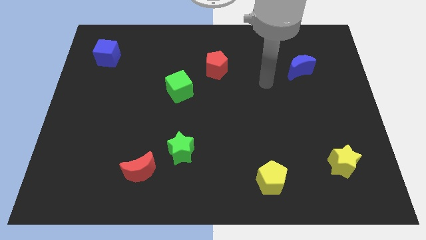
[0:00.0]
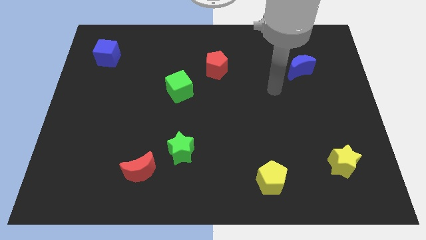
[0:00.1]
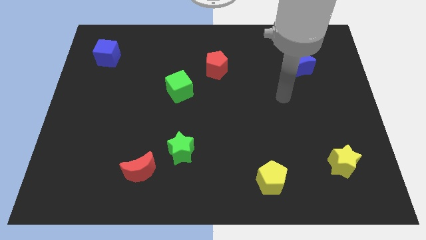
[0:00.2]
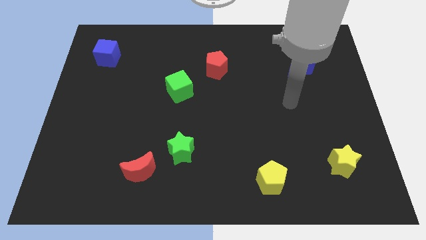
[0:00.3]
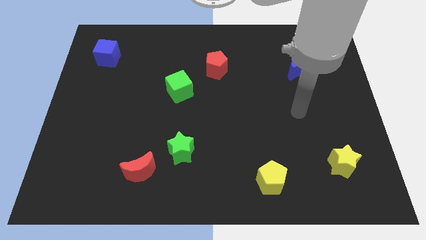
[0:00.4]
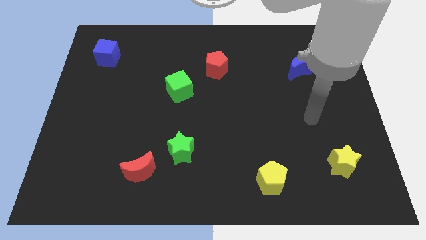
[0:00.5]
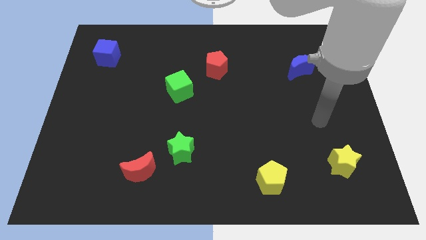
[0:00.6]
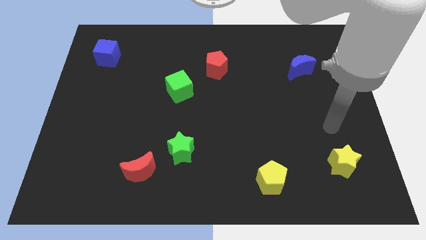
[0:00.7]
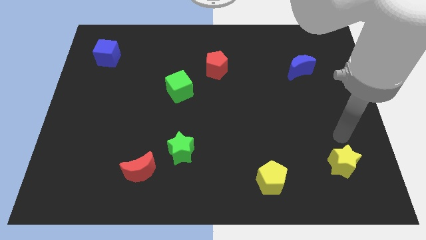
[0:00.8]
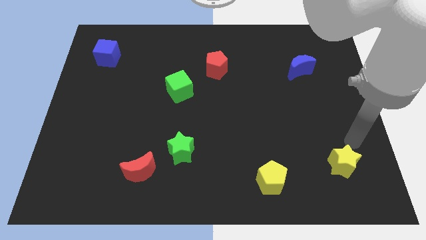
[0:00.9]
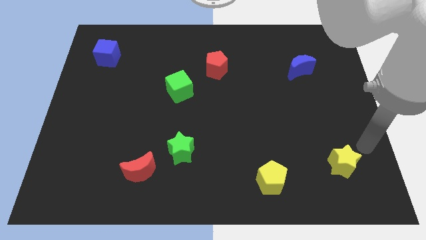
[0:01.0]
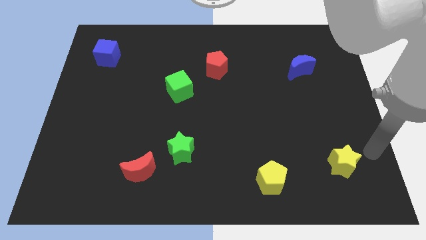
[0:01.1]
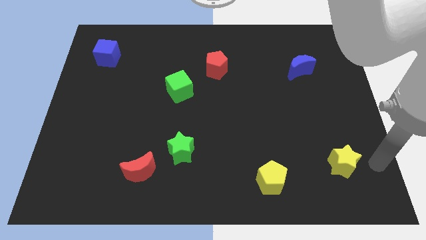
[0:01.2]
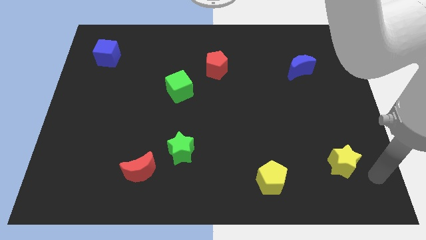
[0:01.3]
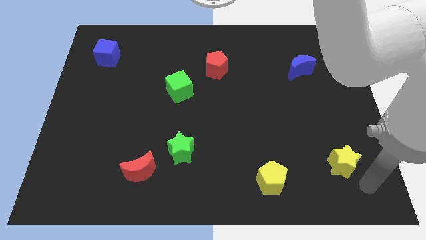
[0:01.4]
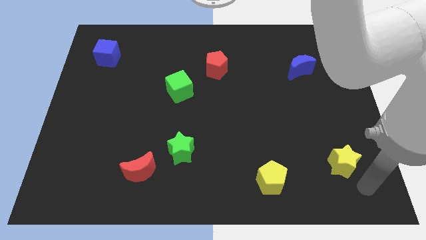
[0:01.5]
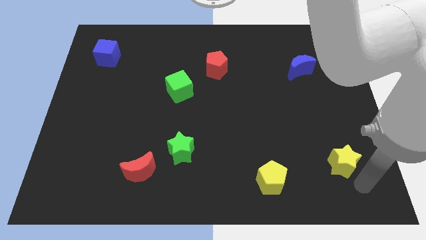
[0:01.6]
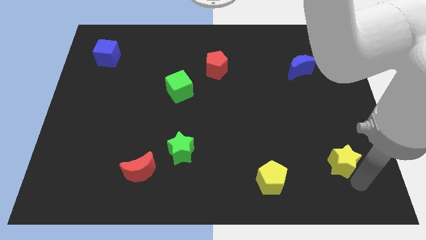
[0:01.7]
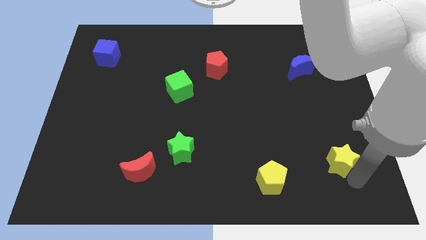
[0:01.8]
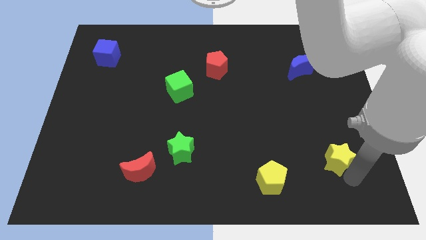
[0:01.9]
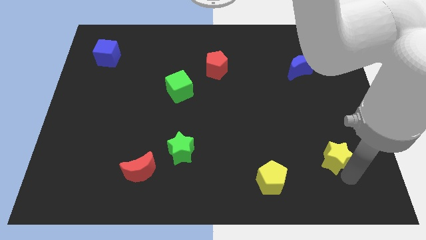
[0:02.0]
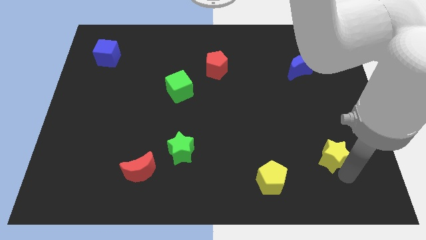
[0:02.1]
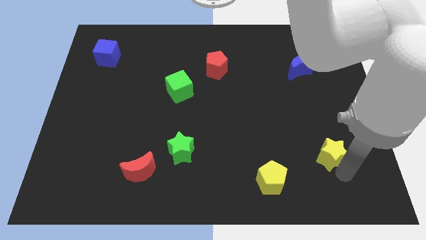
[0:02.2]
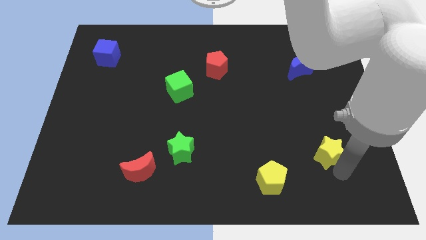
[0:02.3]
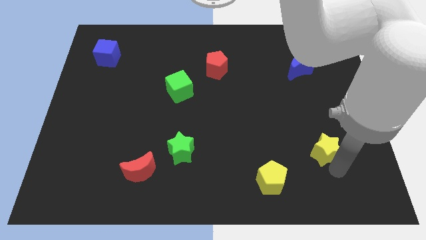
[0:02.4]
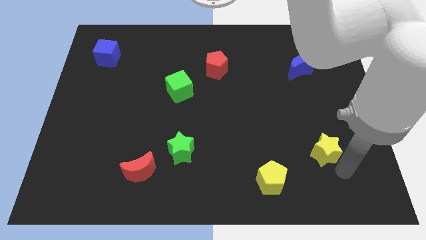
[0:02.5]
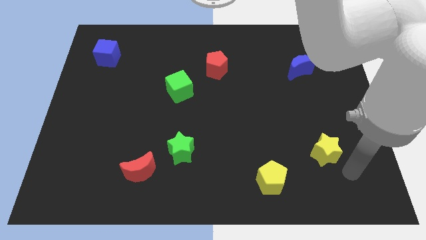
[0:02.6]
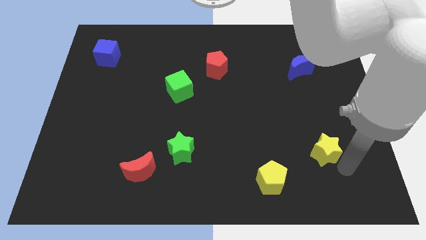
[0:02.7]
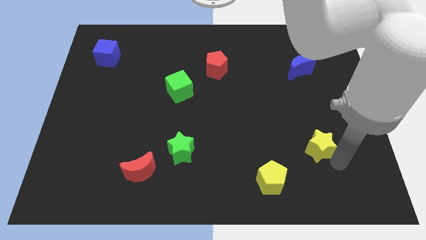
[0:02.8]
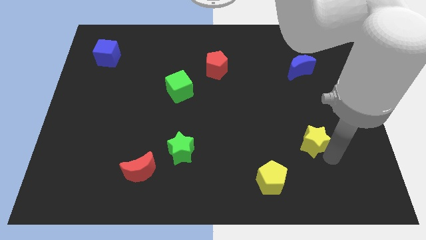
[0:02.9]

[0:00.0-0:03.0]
push the yellow star upwards and to the left diagonally slightly

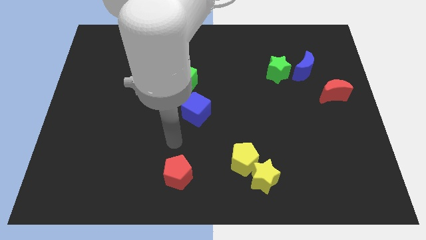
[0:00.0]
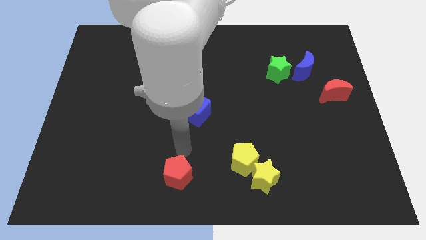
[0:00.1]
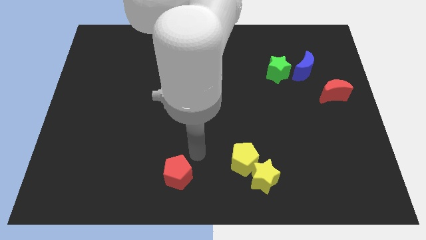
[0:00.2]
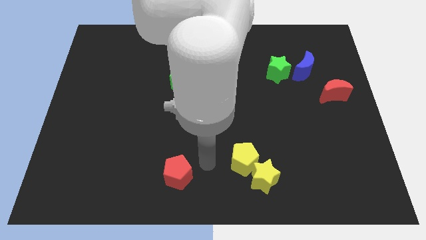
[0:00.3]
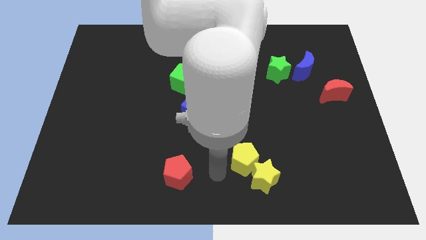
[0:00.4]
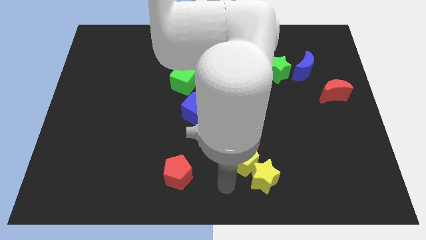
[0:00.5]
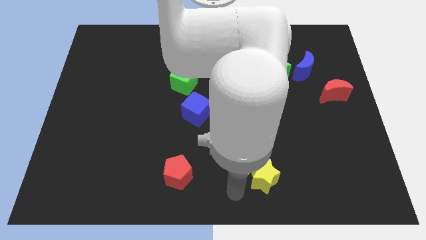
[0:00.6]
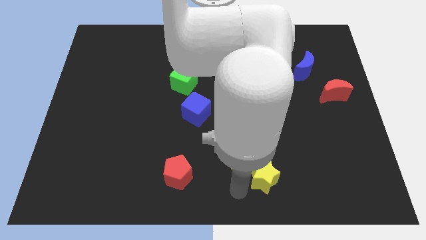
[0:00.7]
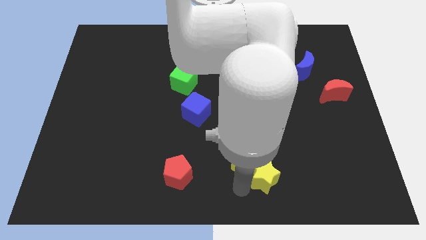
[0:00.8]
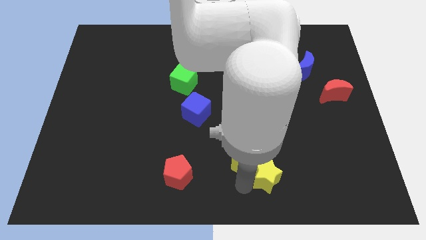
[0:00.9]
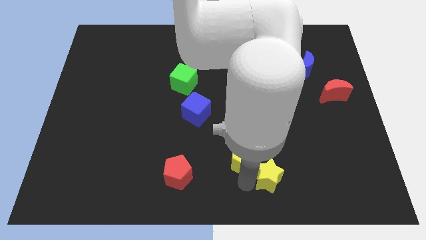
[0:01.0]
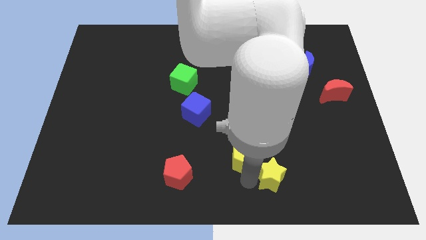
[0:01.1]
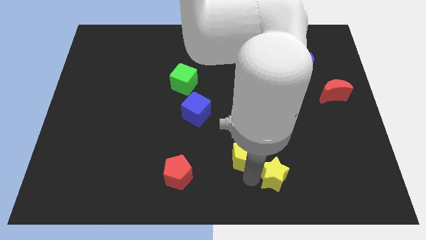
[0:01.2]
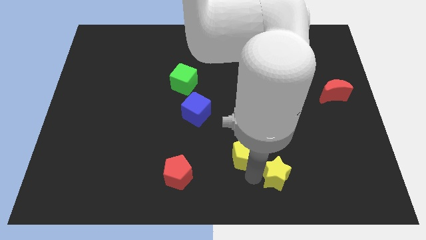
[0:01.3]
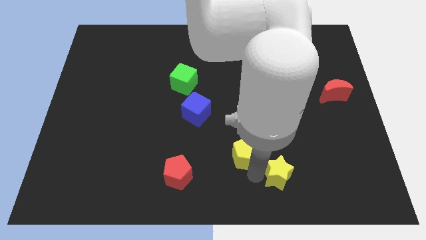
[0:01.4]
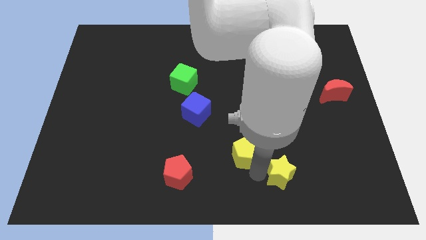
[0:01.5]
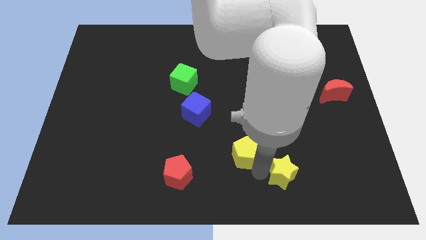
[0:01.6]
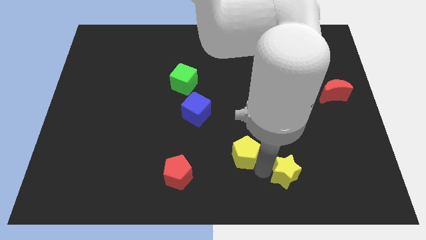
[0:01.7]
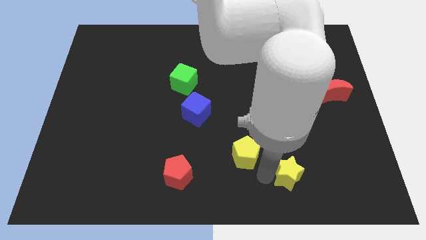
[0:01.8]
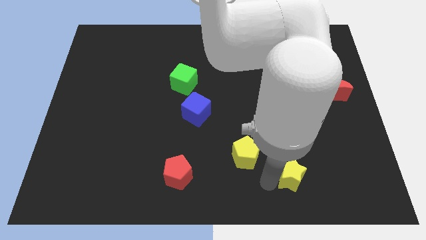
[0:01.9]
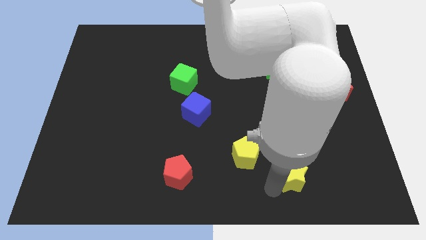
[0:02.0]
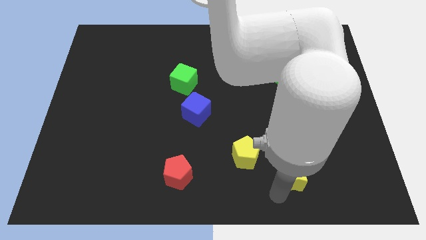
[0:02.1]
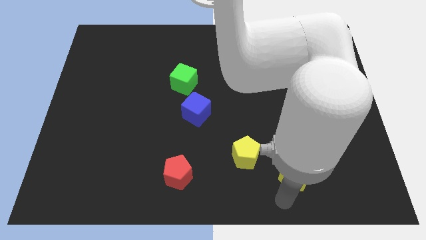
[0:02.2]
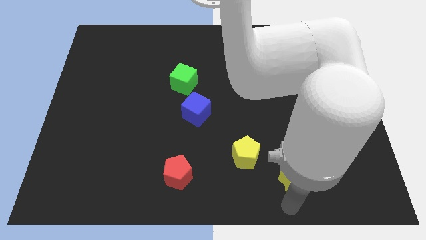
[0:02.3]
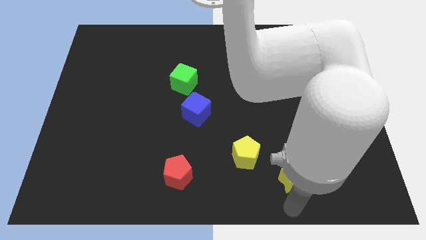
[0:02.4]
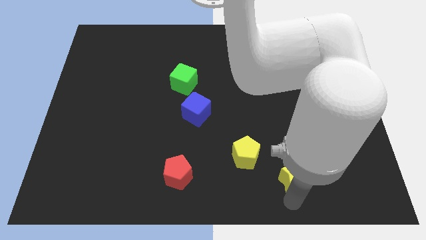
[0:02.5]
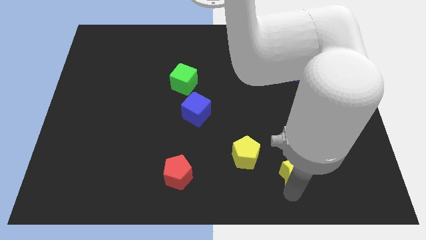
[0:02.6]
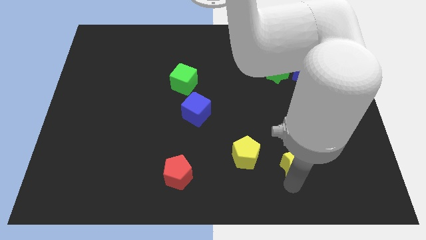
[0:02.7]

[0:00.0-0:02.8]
move the yellow star upwards and then right a bit

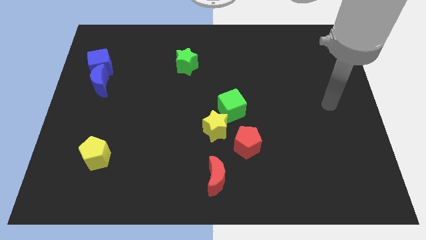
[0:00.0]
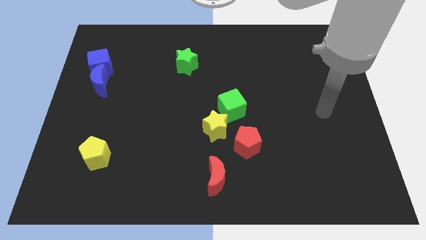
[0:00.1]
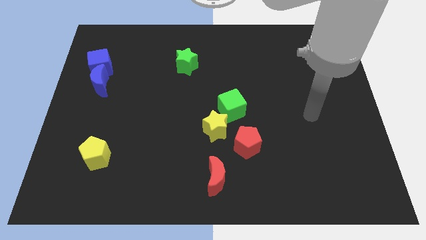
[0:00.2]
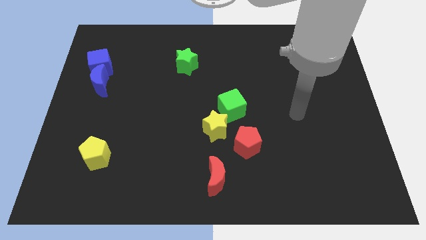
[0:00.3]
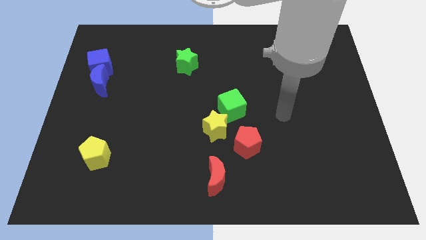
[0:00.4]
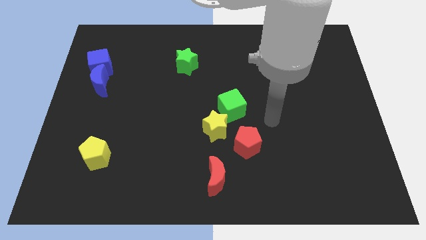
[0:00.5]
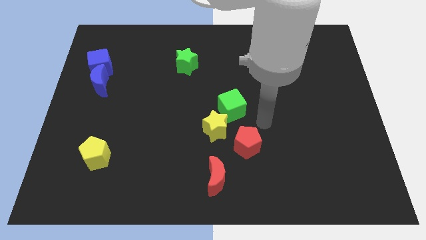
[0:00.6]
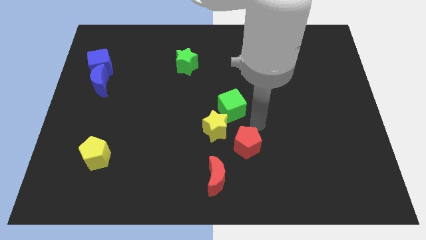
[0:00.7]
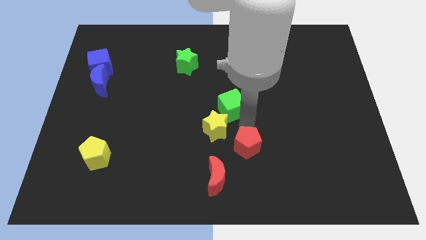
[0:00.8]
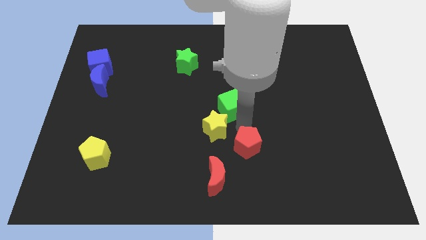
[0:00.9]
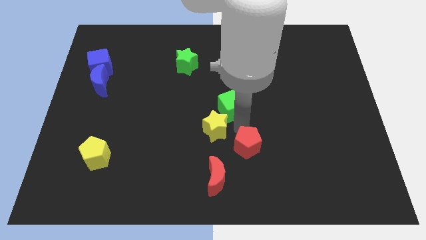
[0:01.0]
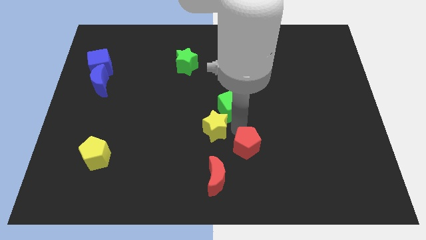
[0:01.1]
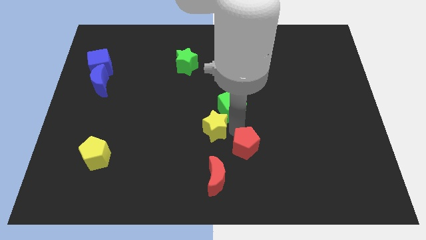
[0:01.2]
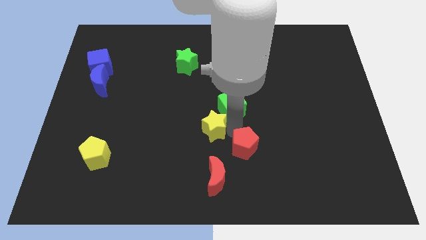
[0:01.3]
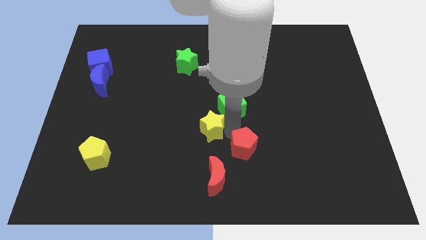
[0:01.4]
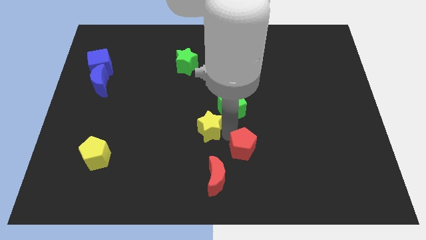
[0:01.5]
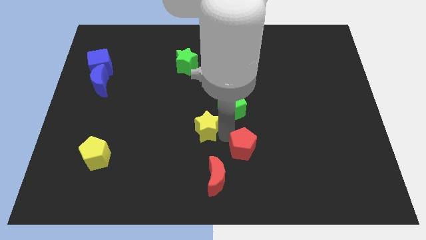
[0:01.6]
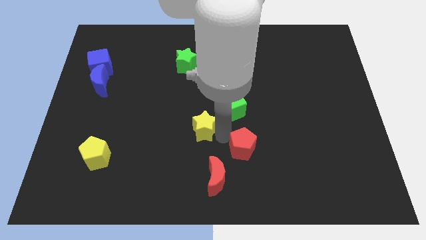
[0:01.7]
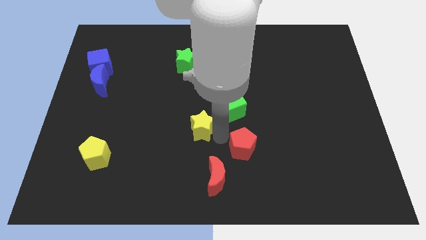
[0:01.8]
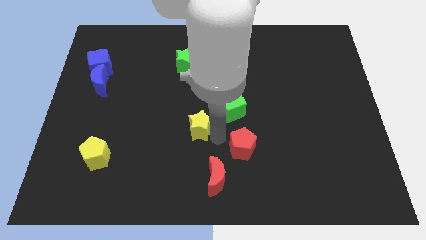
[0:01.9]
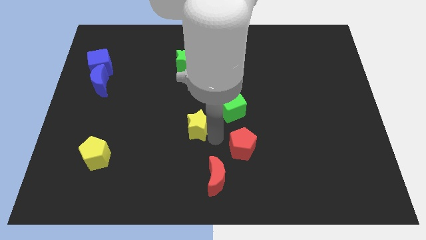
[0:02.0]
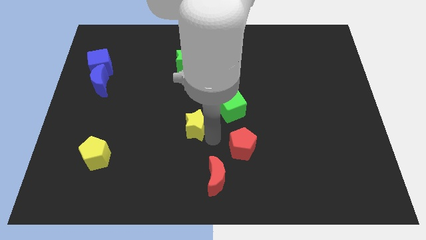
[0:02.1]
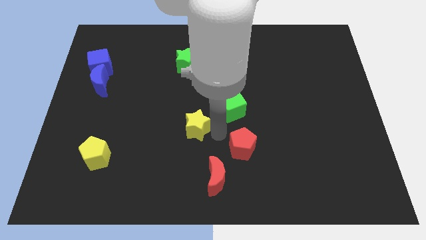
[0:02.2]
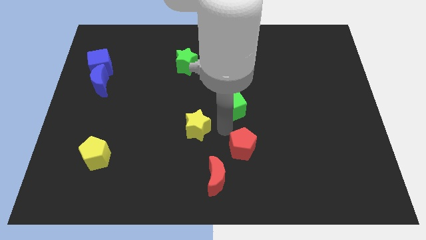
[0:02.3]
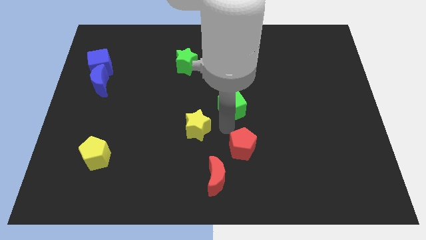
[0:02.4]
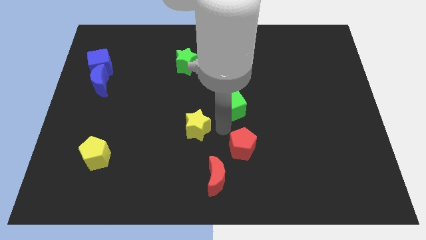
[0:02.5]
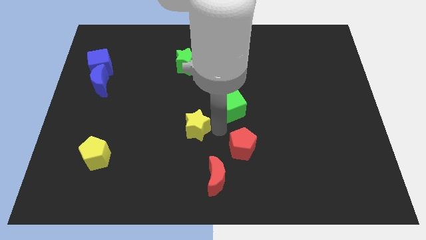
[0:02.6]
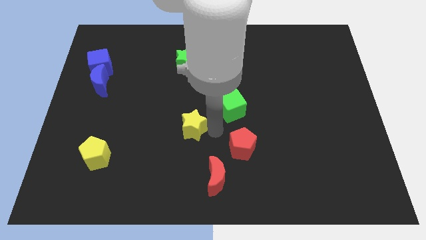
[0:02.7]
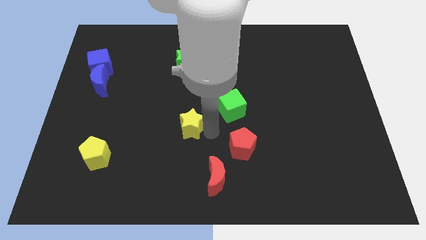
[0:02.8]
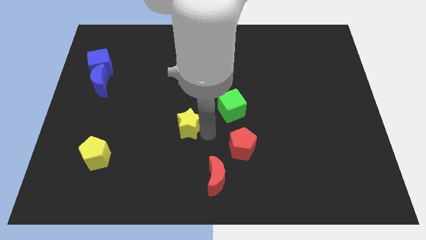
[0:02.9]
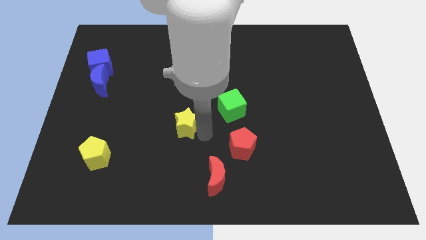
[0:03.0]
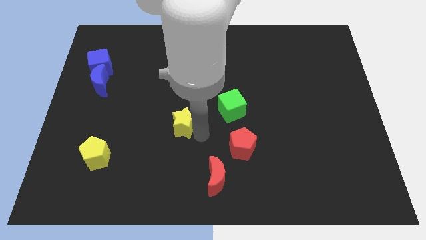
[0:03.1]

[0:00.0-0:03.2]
slightly slide the yellow star left
